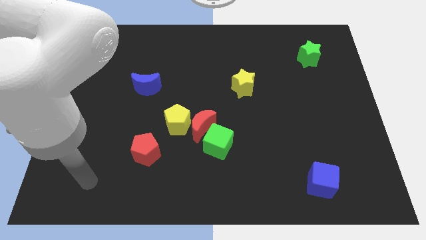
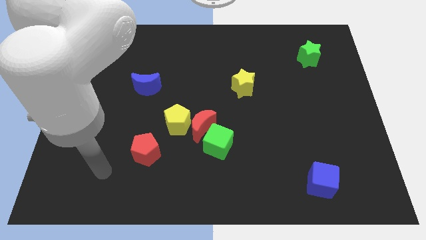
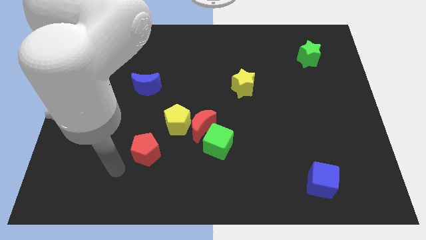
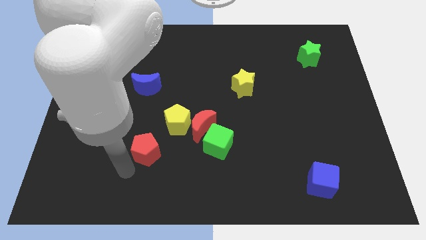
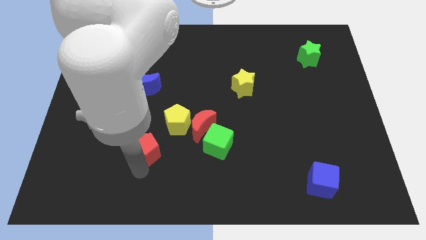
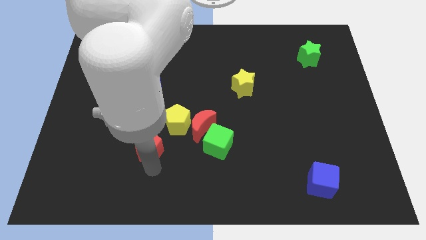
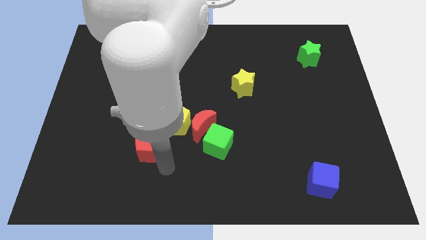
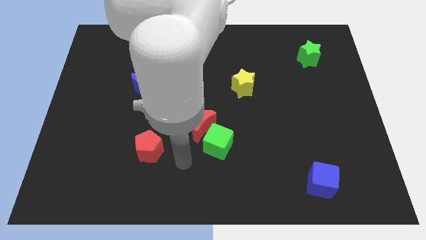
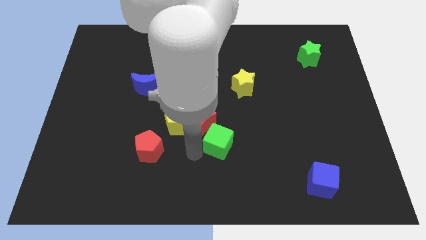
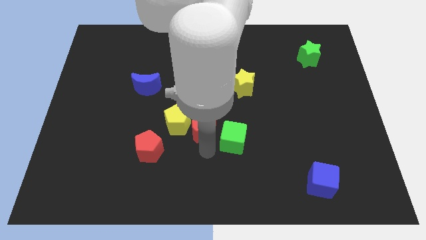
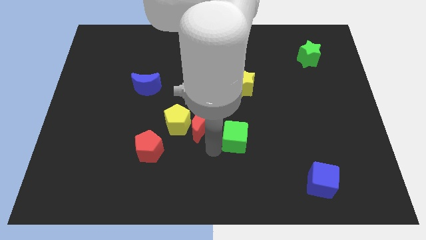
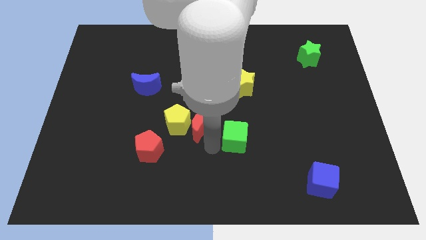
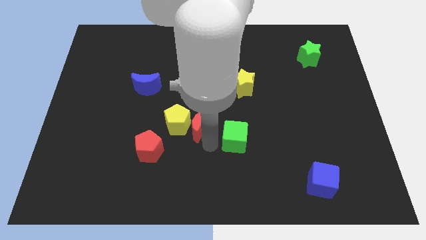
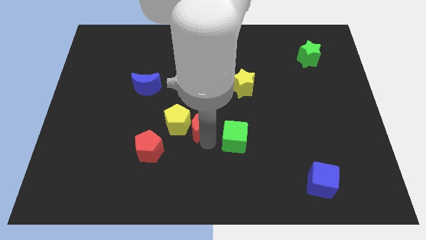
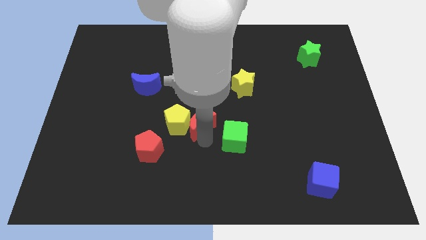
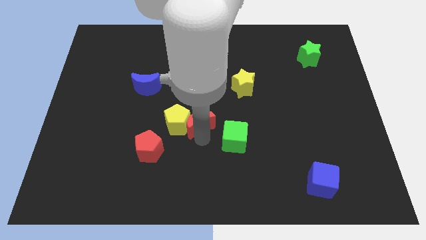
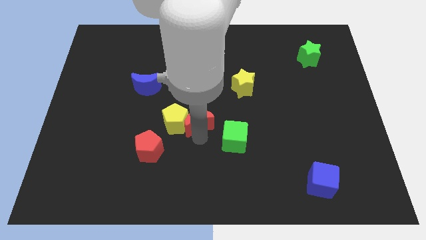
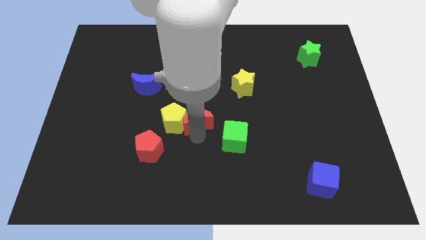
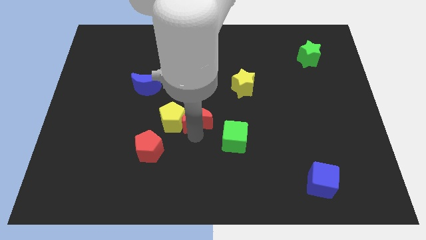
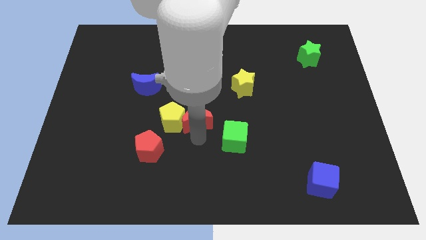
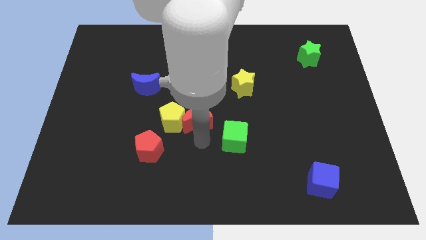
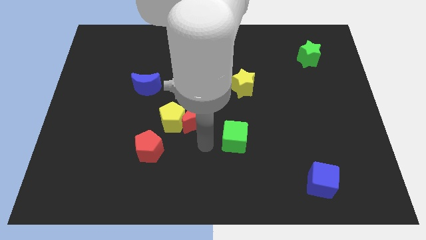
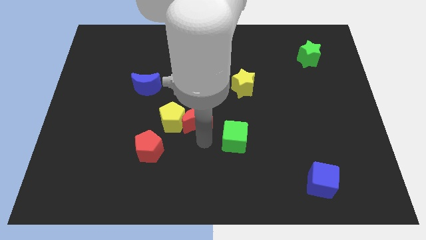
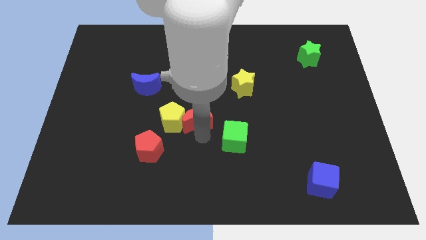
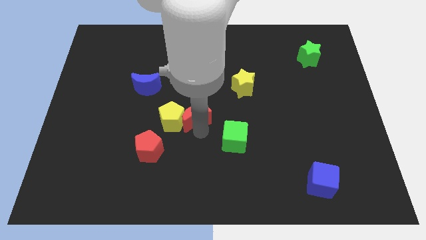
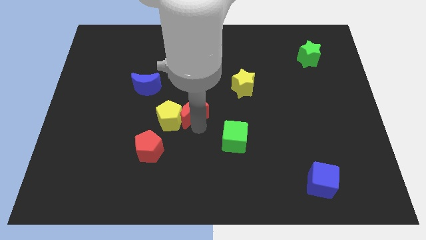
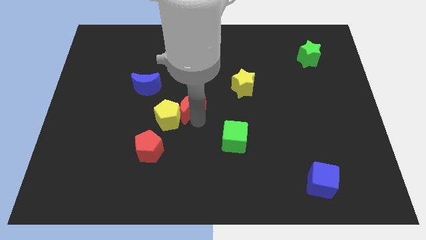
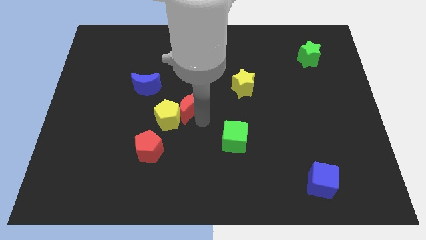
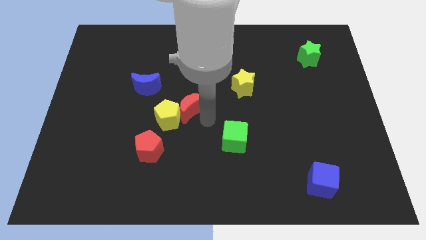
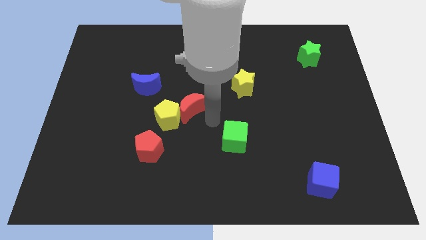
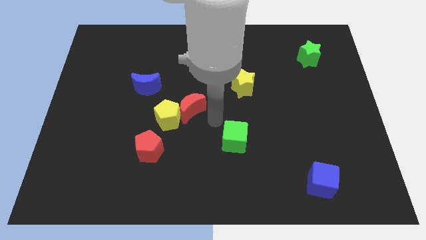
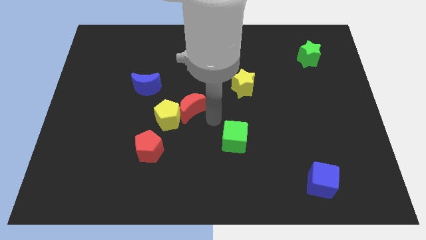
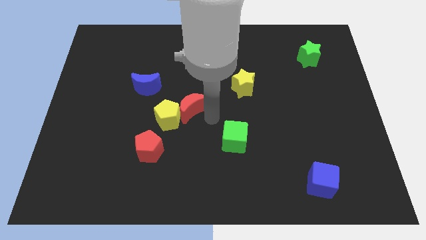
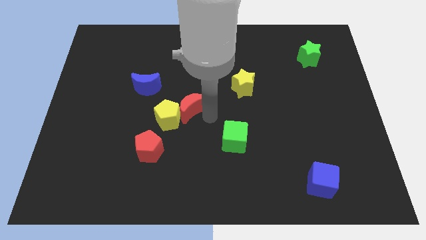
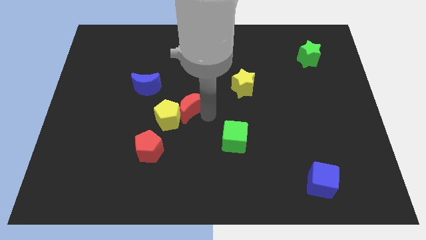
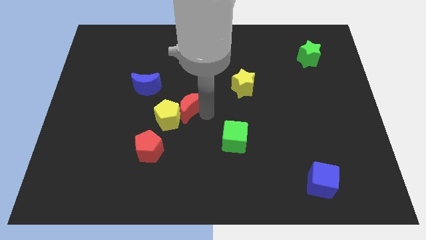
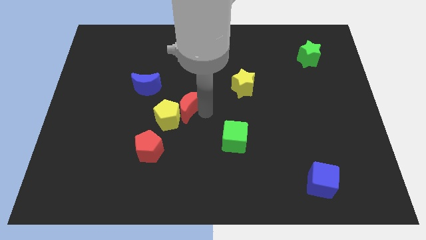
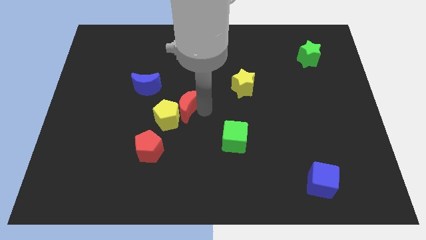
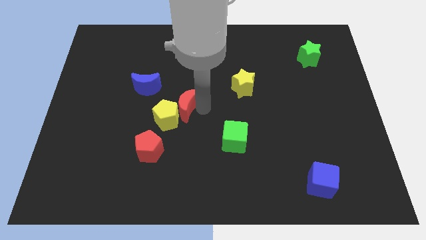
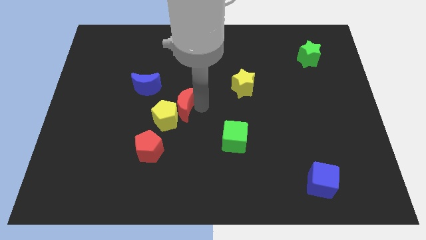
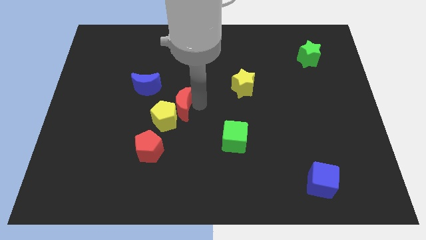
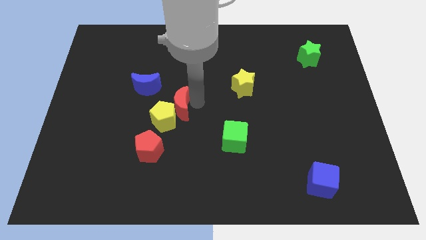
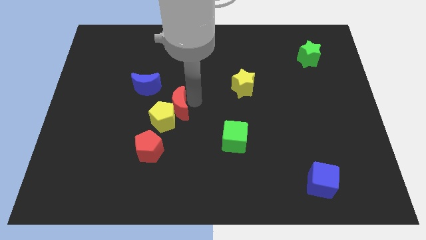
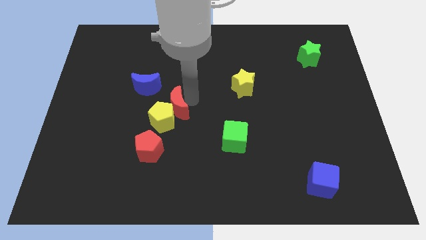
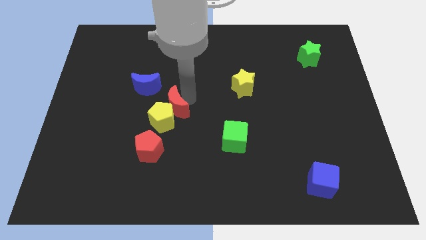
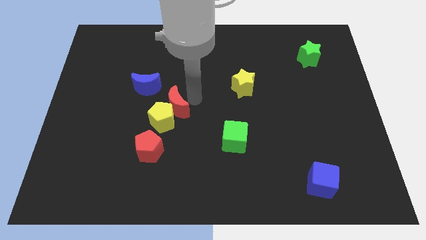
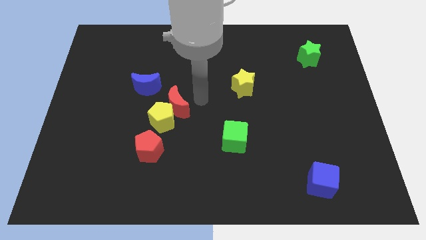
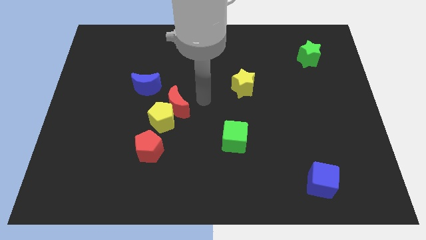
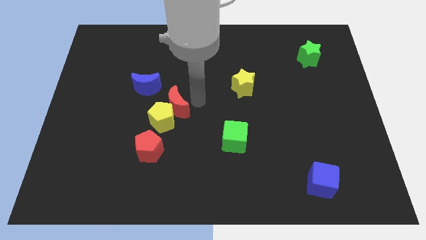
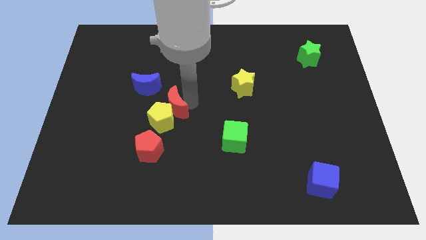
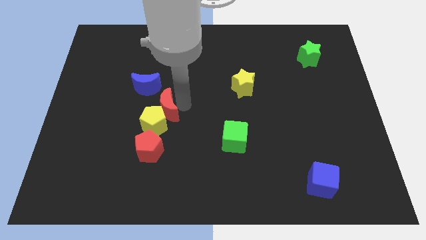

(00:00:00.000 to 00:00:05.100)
push the red moon to the left a little

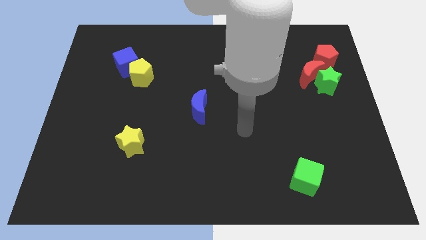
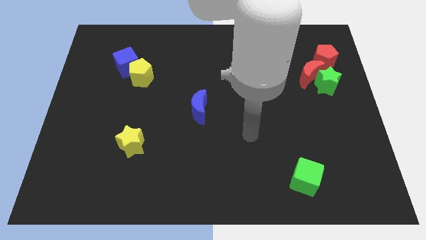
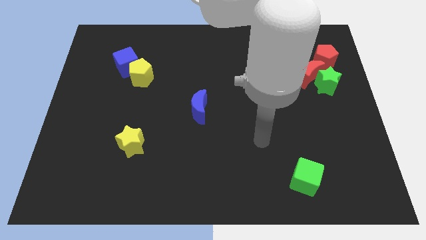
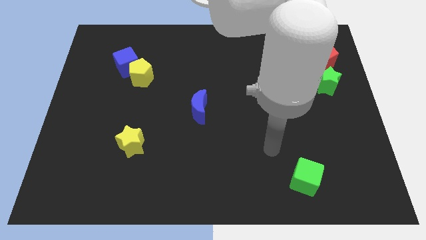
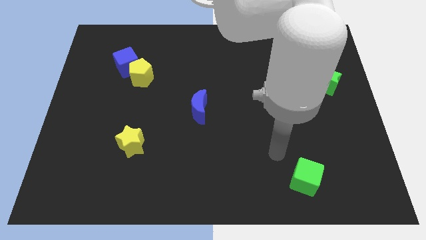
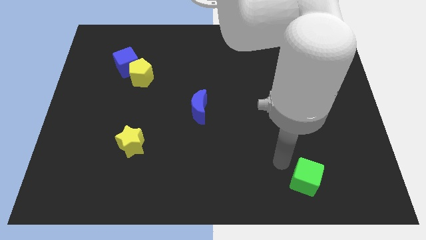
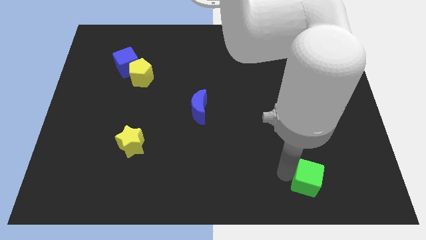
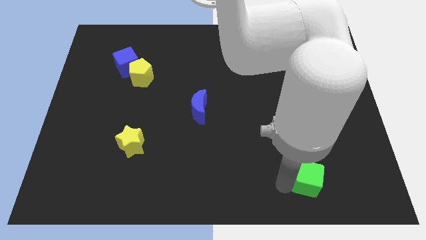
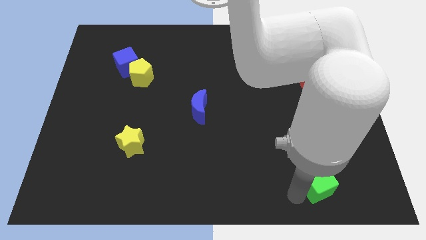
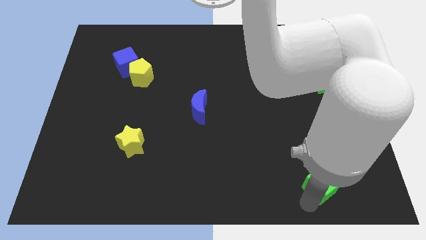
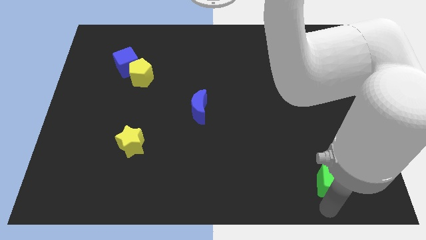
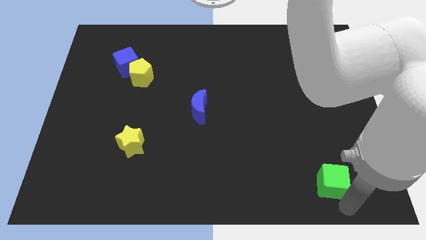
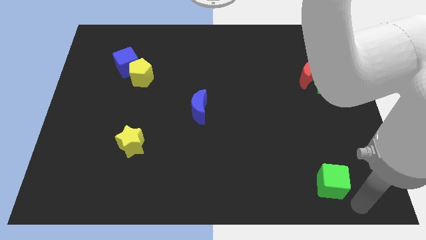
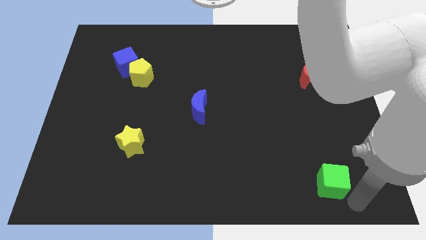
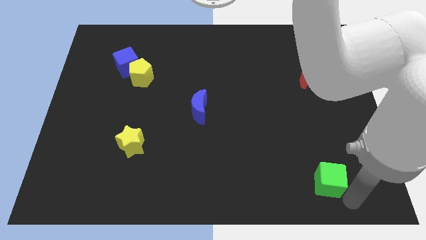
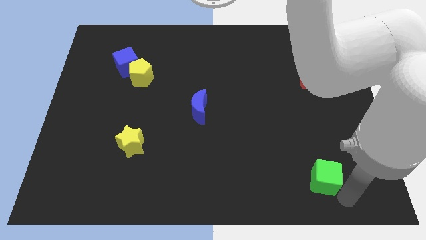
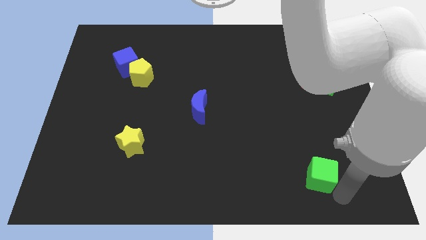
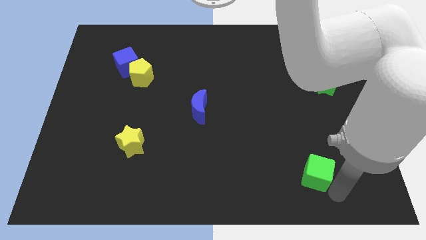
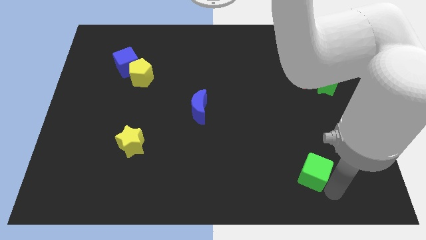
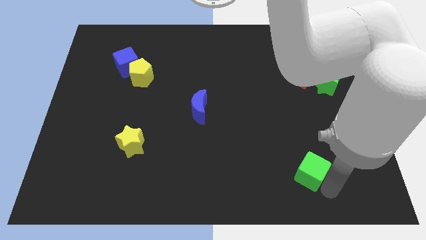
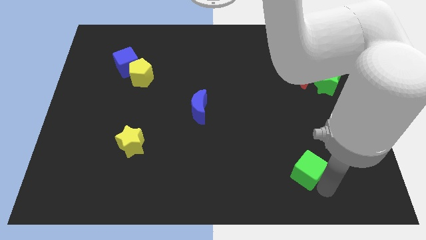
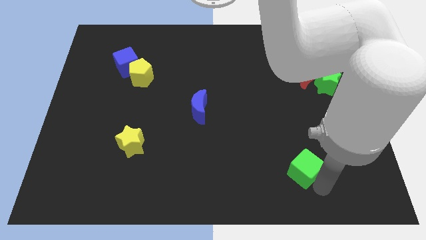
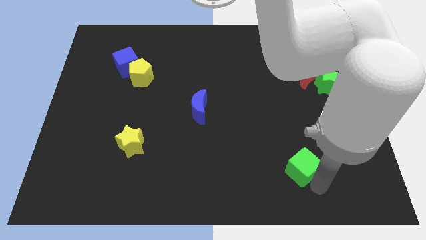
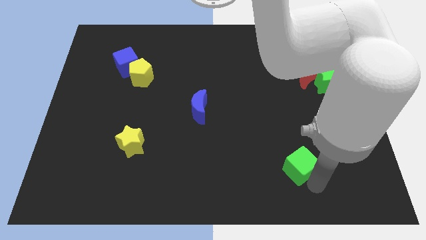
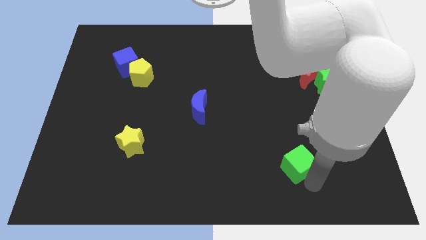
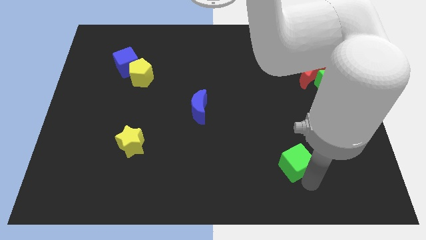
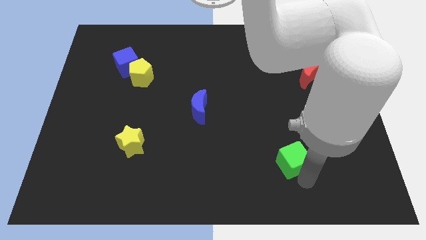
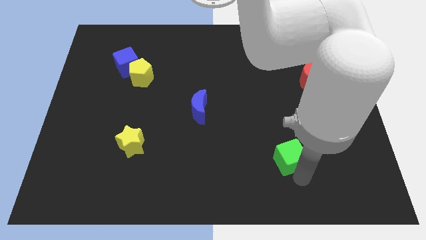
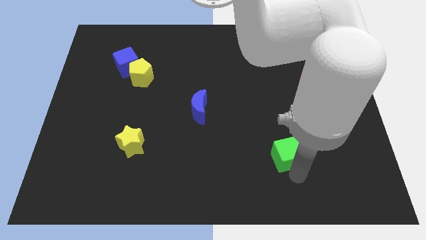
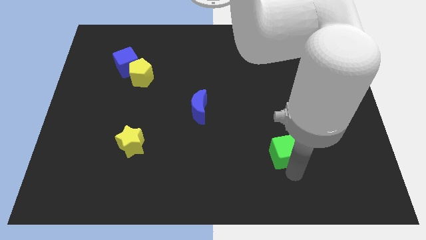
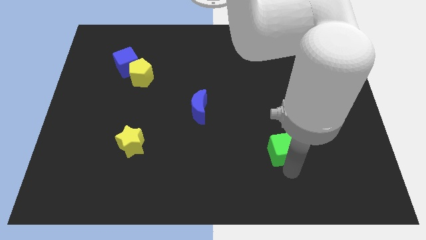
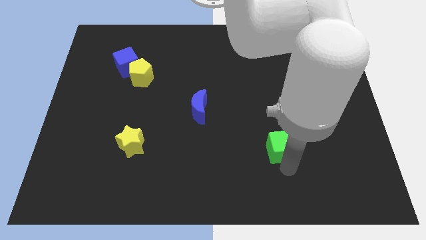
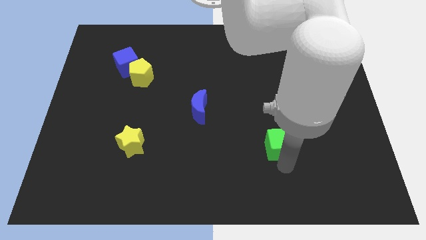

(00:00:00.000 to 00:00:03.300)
slide the green cube up slightly

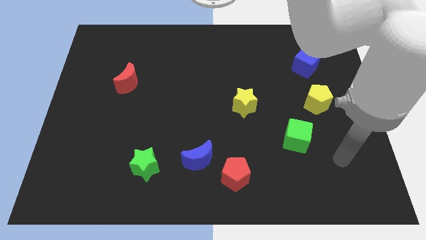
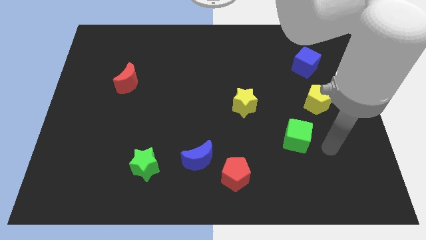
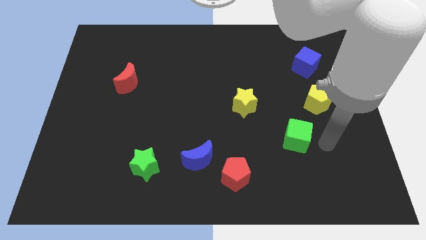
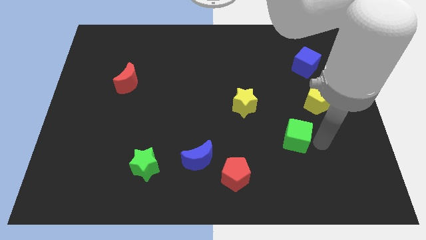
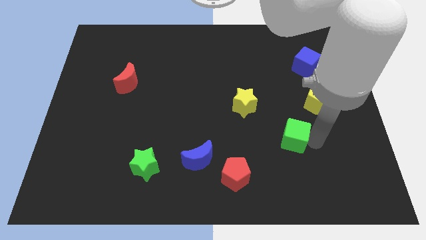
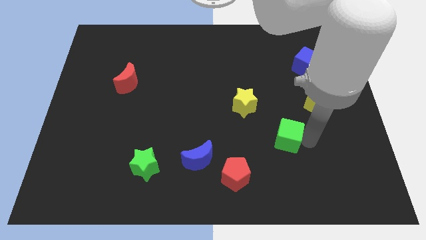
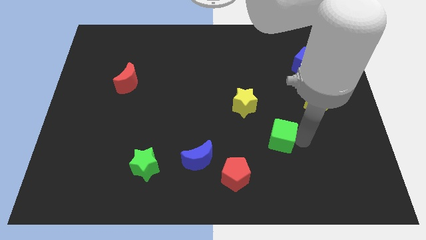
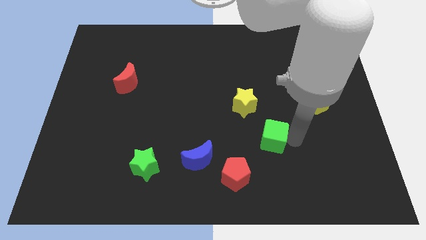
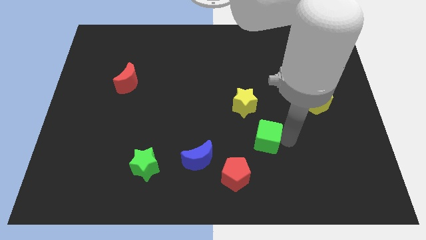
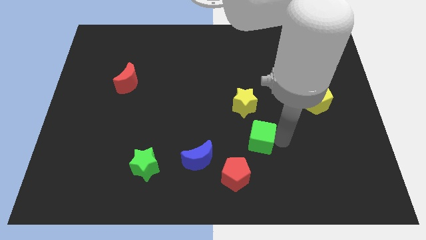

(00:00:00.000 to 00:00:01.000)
push the green cube to the left a bit
